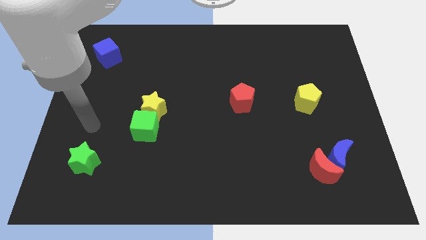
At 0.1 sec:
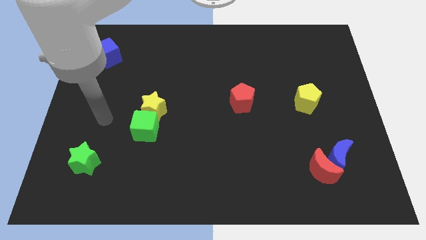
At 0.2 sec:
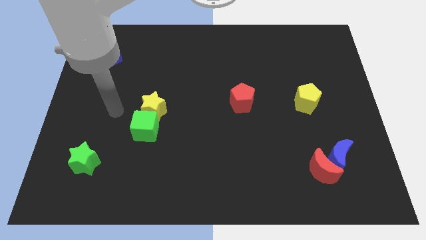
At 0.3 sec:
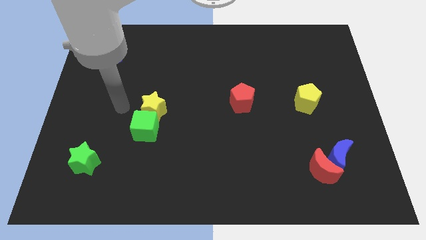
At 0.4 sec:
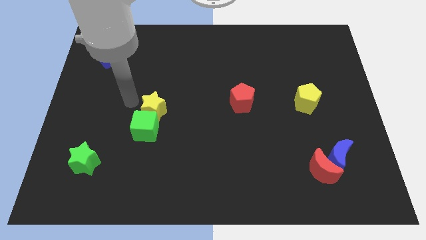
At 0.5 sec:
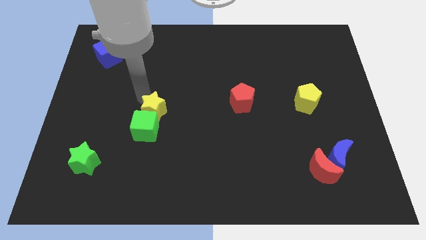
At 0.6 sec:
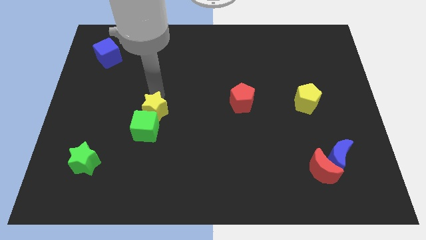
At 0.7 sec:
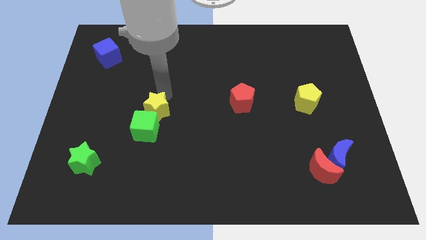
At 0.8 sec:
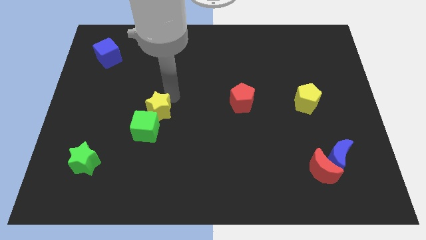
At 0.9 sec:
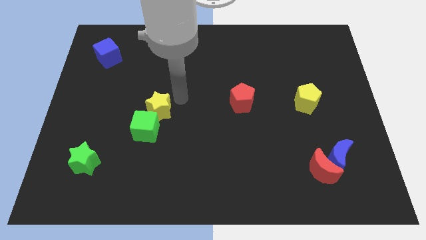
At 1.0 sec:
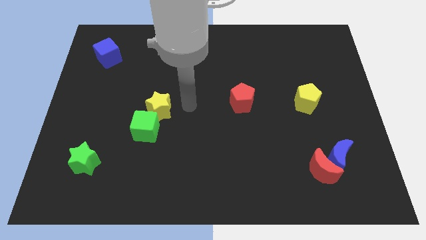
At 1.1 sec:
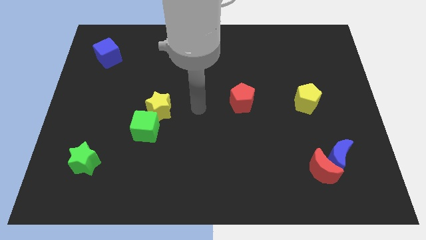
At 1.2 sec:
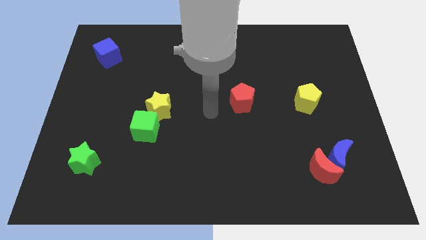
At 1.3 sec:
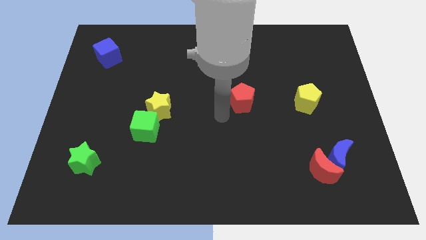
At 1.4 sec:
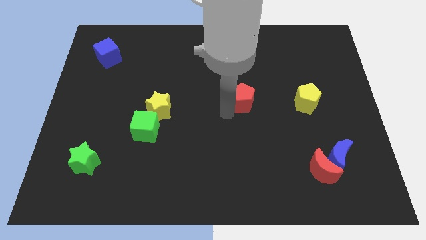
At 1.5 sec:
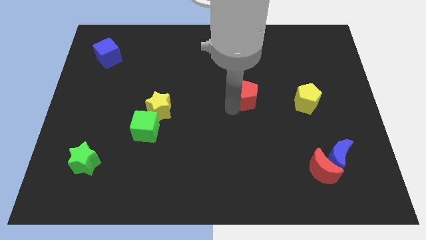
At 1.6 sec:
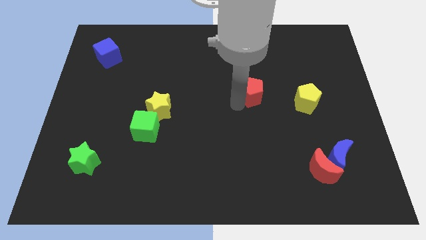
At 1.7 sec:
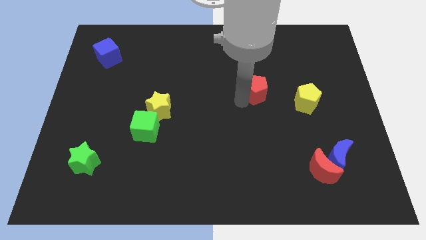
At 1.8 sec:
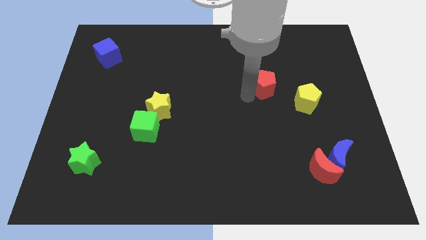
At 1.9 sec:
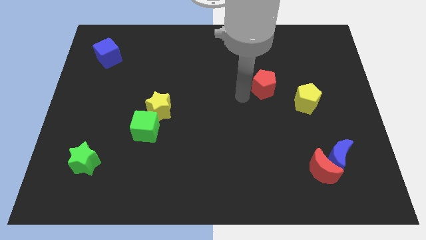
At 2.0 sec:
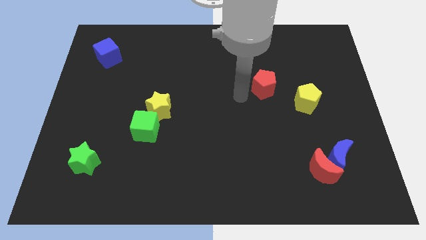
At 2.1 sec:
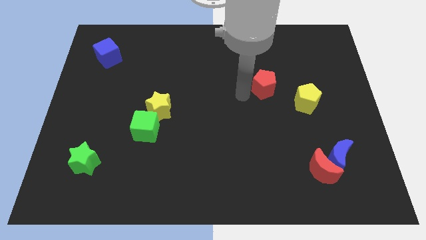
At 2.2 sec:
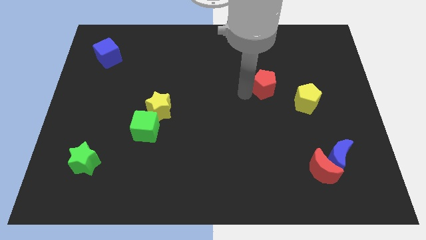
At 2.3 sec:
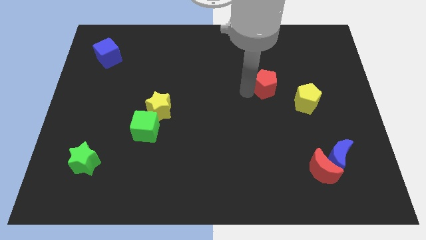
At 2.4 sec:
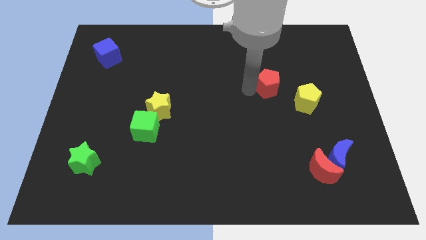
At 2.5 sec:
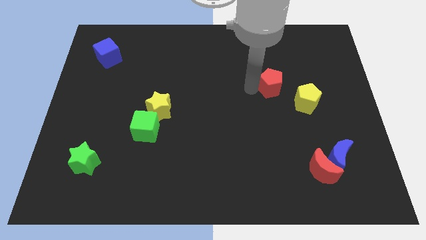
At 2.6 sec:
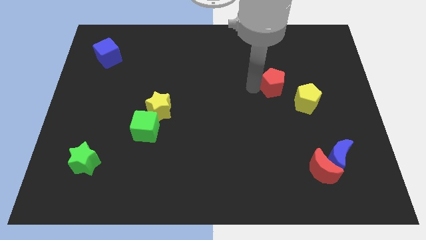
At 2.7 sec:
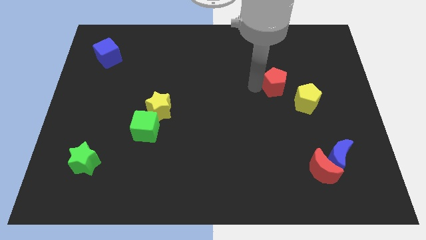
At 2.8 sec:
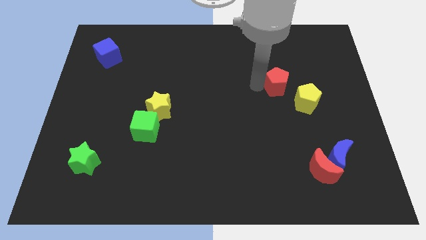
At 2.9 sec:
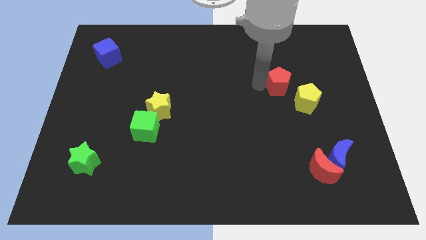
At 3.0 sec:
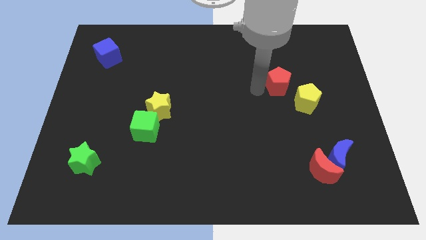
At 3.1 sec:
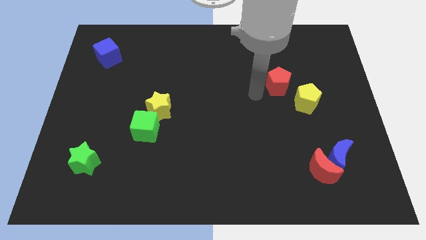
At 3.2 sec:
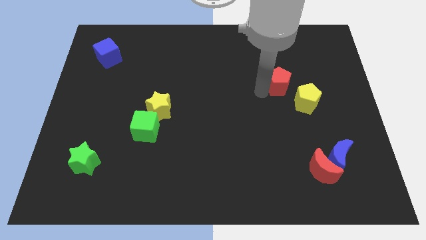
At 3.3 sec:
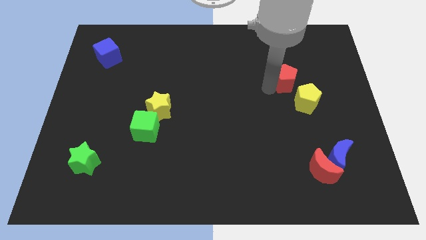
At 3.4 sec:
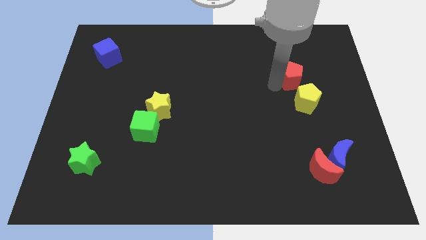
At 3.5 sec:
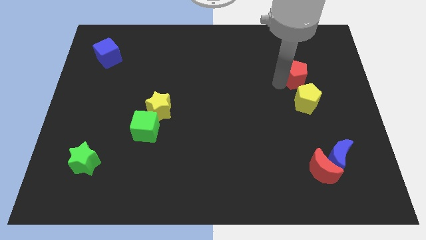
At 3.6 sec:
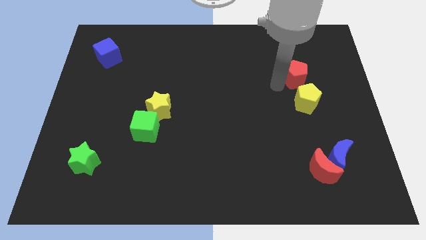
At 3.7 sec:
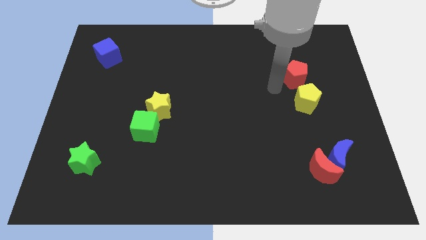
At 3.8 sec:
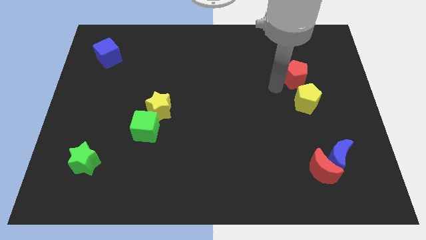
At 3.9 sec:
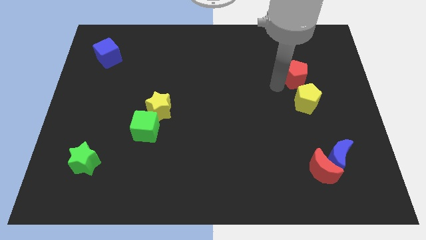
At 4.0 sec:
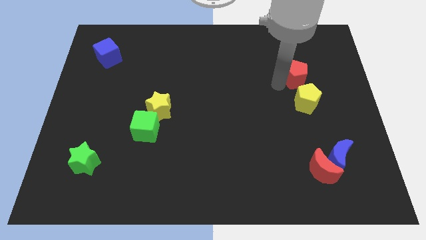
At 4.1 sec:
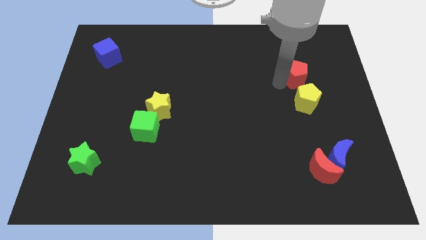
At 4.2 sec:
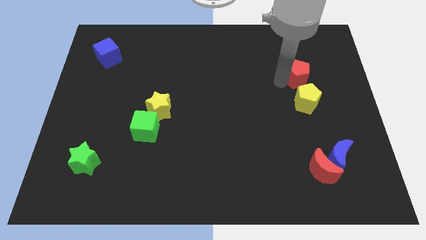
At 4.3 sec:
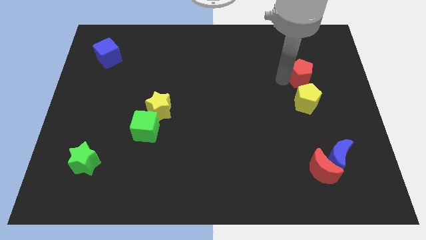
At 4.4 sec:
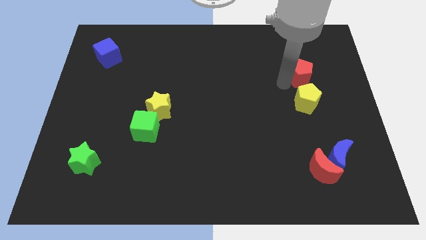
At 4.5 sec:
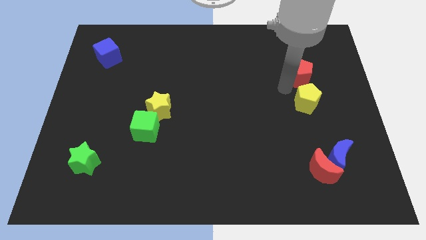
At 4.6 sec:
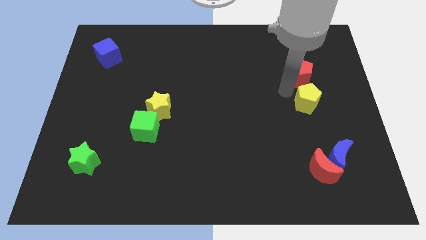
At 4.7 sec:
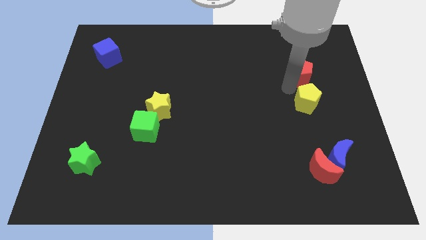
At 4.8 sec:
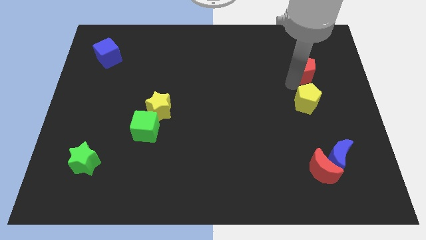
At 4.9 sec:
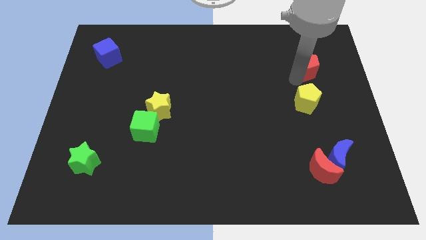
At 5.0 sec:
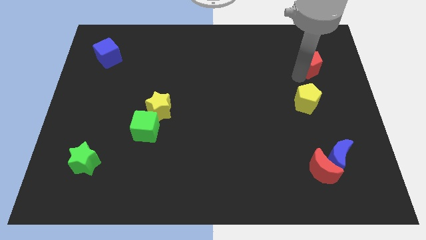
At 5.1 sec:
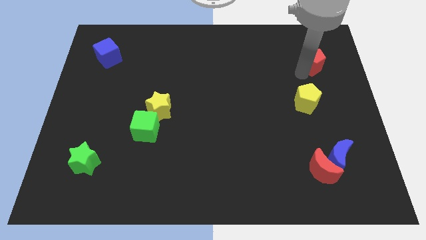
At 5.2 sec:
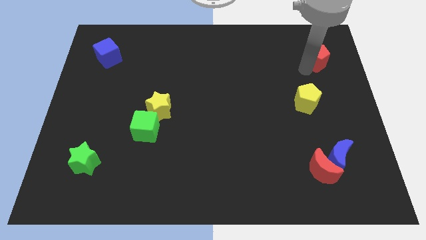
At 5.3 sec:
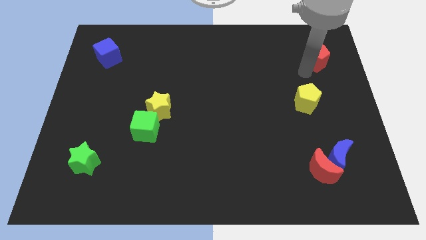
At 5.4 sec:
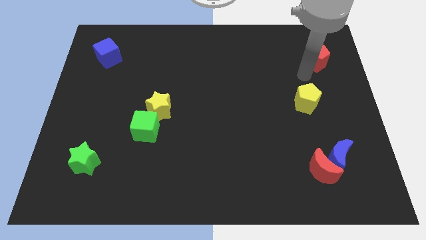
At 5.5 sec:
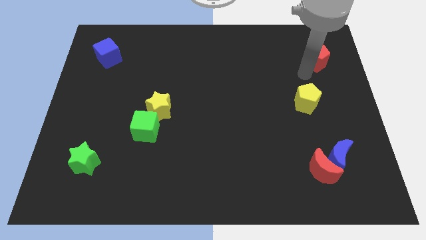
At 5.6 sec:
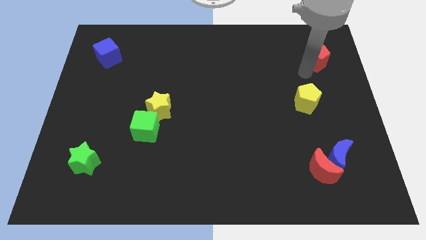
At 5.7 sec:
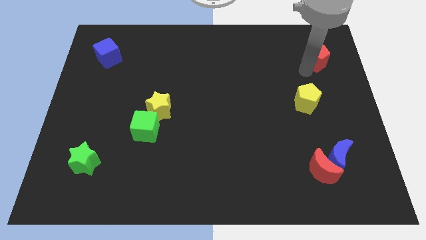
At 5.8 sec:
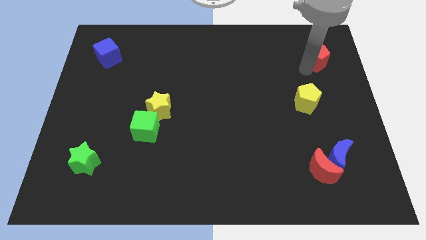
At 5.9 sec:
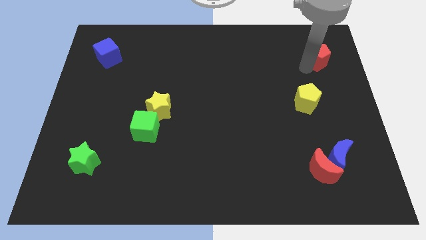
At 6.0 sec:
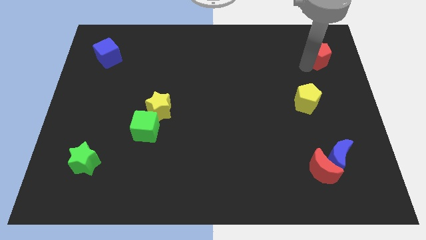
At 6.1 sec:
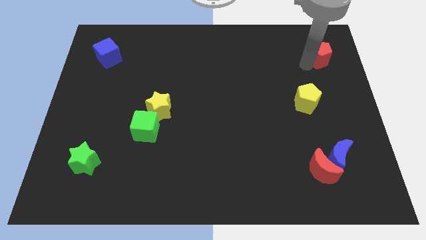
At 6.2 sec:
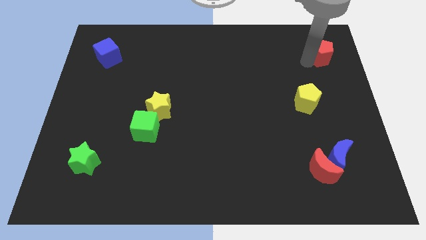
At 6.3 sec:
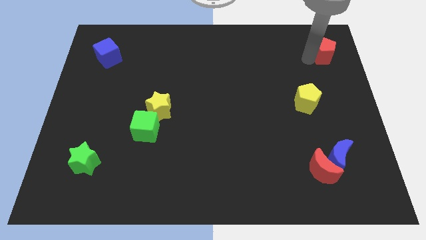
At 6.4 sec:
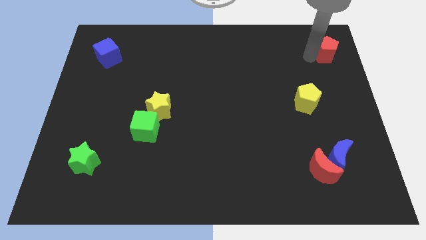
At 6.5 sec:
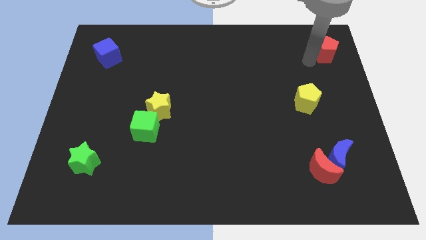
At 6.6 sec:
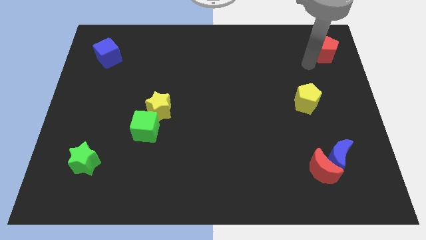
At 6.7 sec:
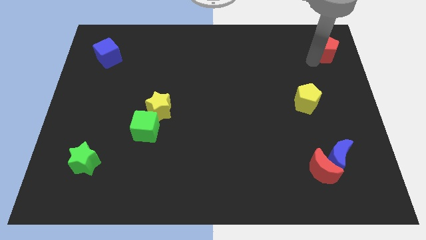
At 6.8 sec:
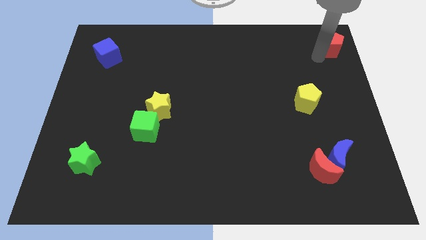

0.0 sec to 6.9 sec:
push the red pentagon to the upper right corner
